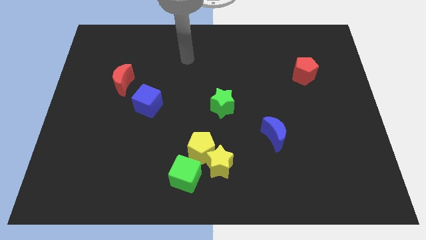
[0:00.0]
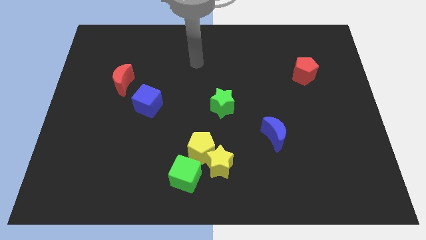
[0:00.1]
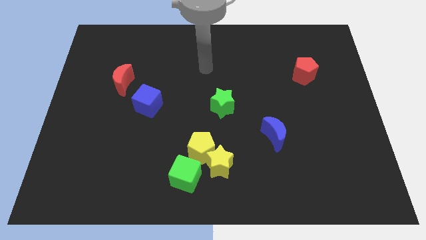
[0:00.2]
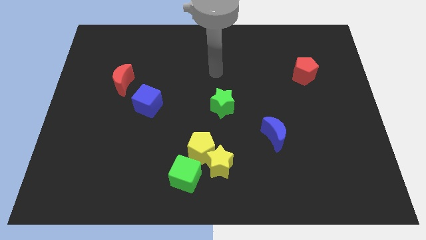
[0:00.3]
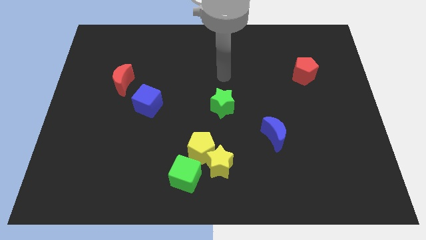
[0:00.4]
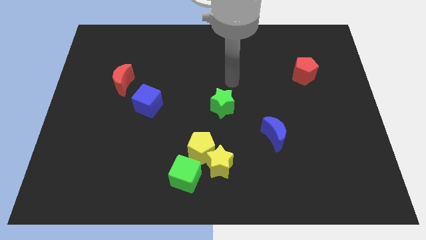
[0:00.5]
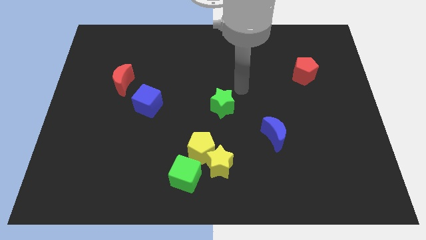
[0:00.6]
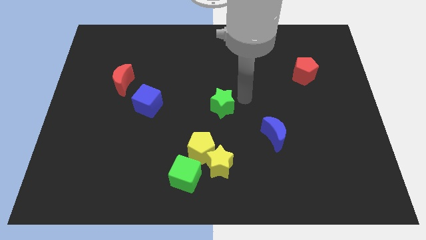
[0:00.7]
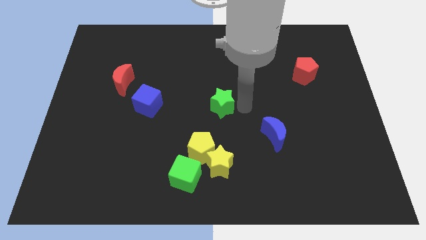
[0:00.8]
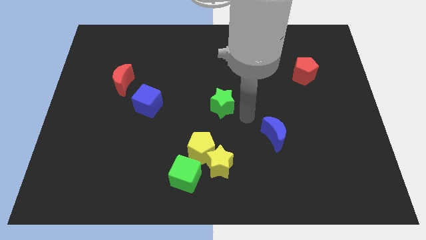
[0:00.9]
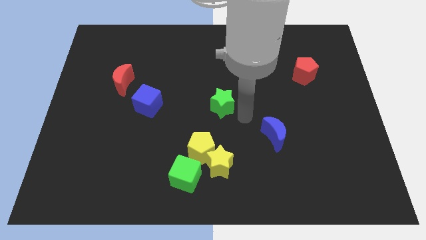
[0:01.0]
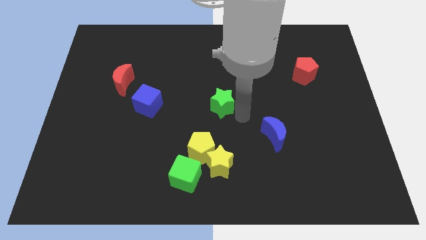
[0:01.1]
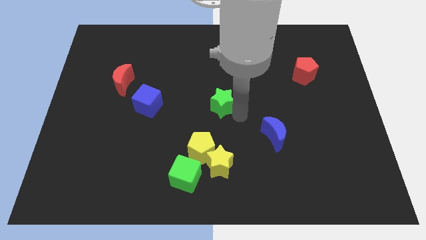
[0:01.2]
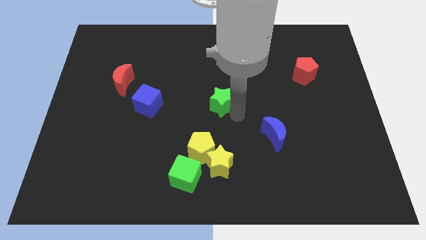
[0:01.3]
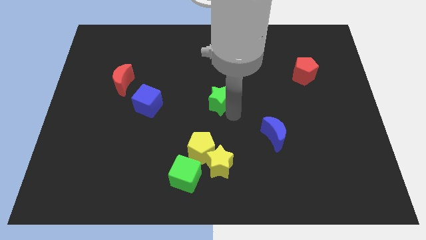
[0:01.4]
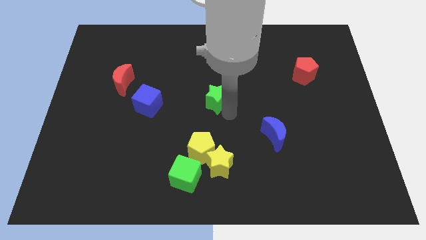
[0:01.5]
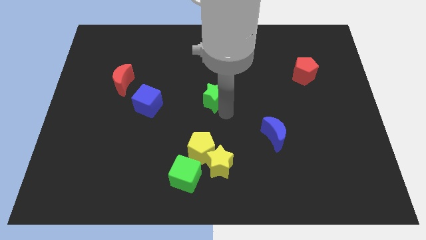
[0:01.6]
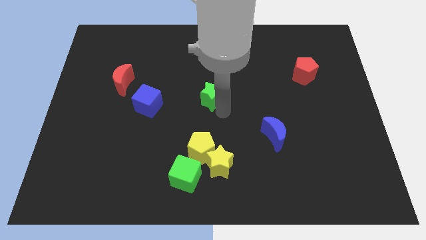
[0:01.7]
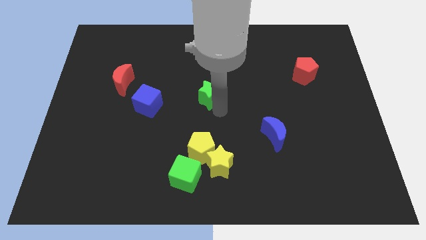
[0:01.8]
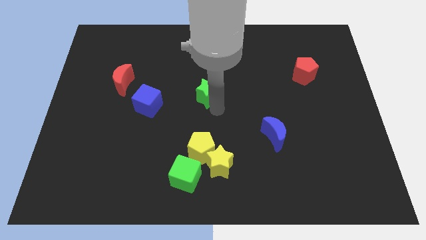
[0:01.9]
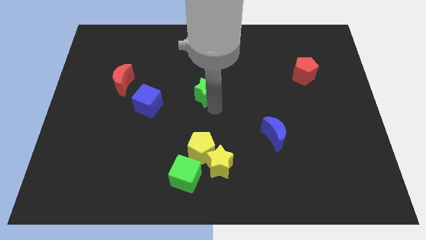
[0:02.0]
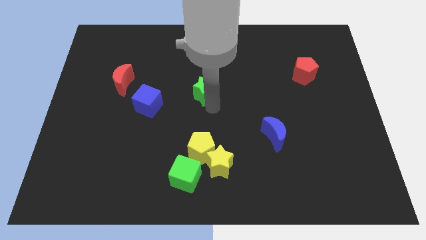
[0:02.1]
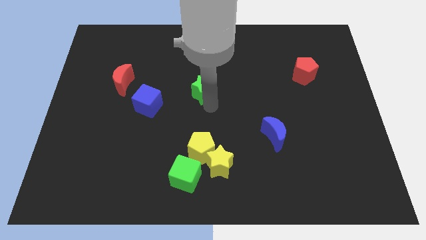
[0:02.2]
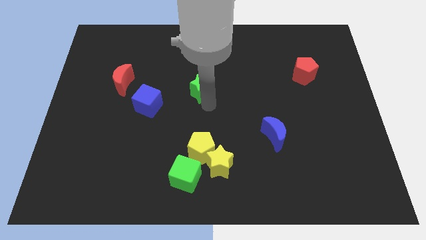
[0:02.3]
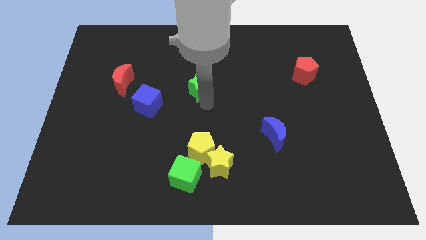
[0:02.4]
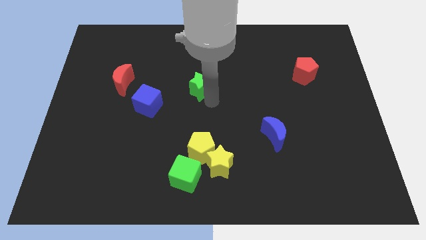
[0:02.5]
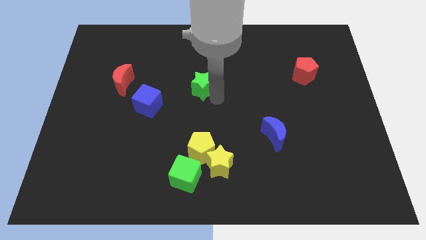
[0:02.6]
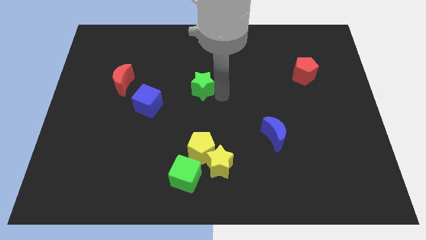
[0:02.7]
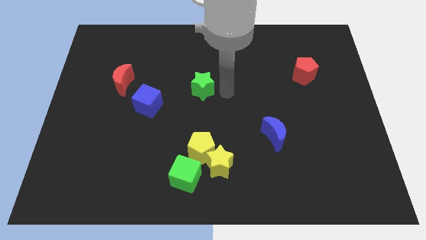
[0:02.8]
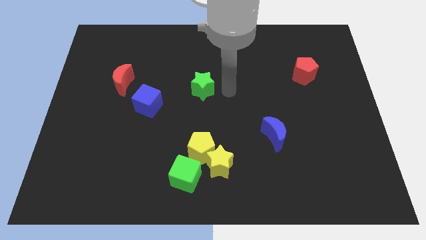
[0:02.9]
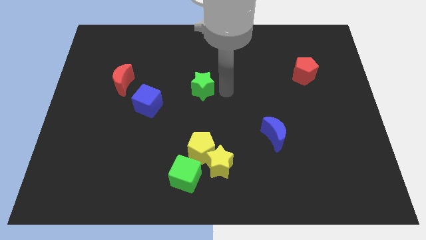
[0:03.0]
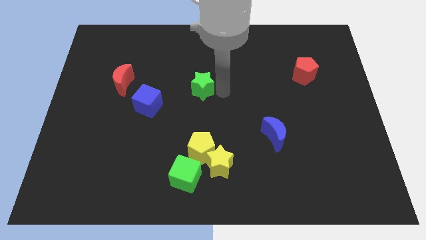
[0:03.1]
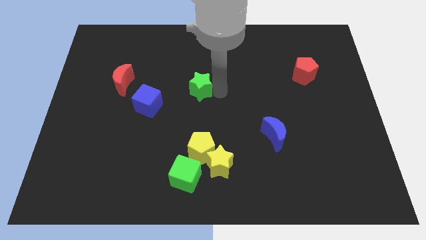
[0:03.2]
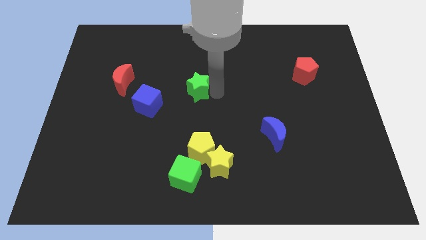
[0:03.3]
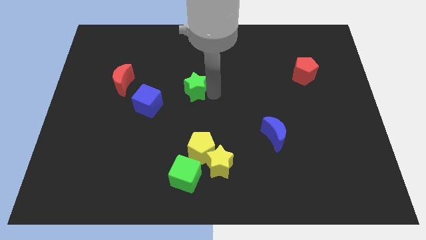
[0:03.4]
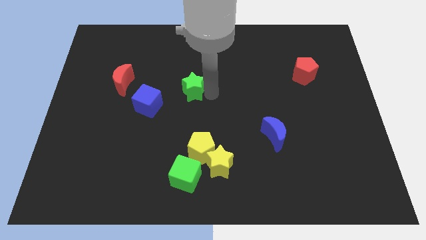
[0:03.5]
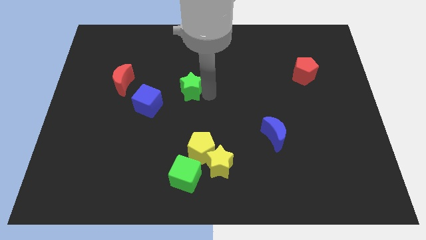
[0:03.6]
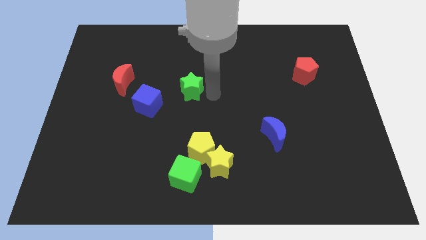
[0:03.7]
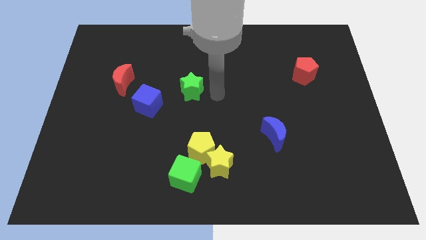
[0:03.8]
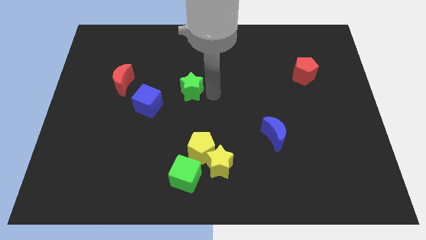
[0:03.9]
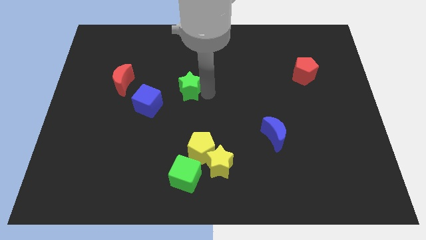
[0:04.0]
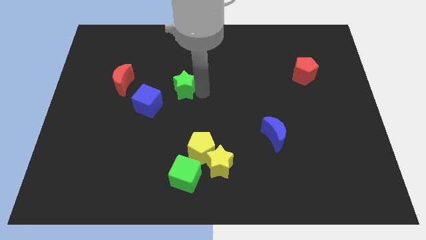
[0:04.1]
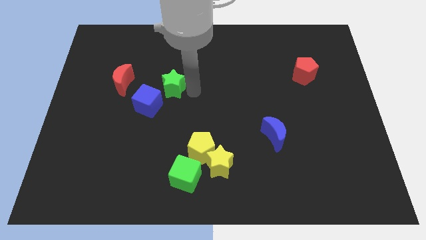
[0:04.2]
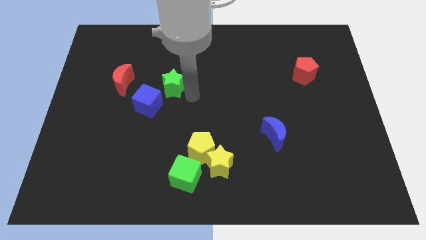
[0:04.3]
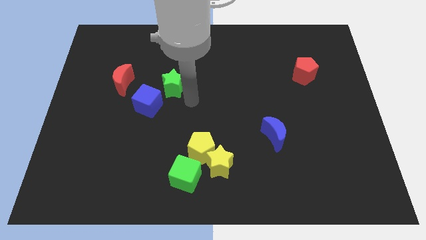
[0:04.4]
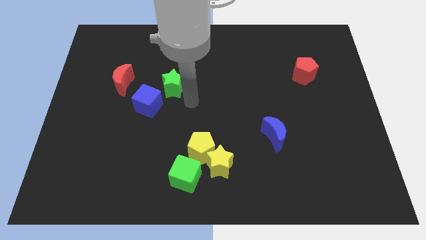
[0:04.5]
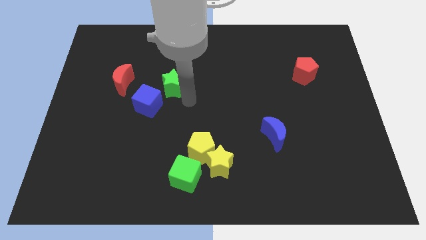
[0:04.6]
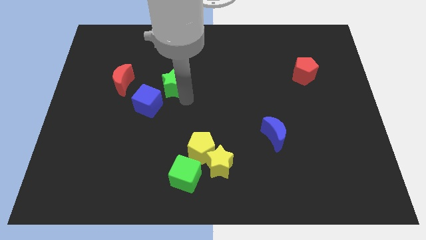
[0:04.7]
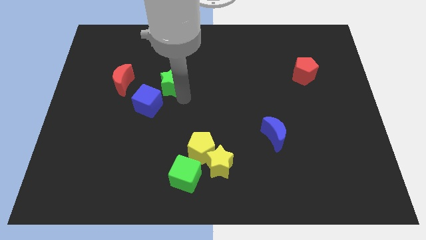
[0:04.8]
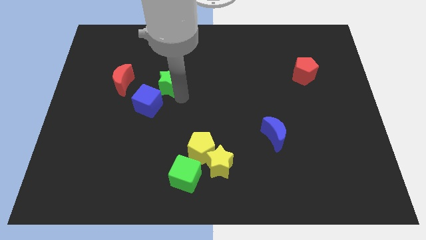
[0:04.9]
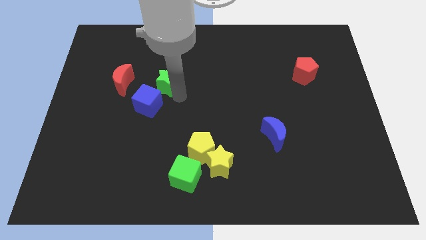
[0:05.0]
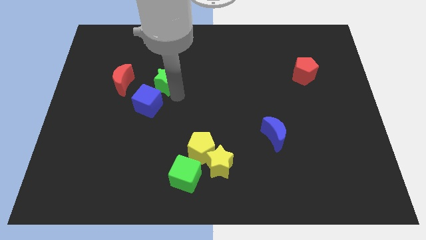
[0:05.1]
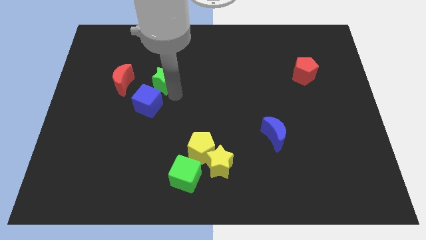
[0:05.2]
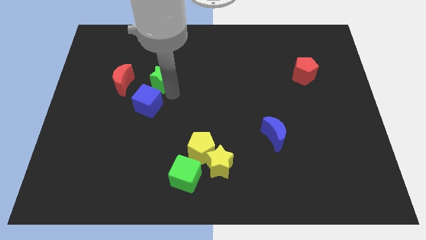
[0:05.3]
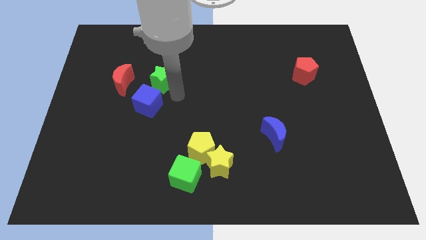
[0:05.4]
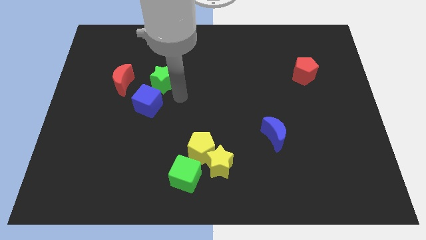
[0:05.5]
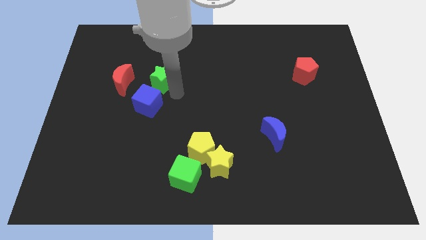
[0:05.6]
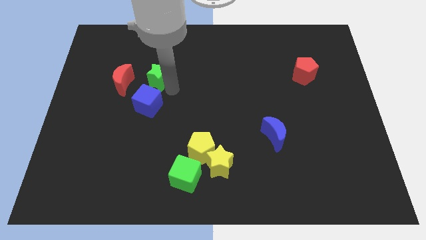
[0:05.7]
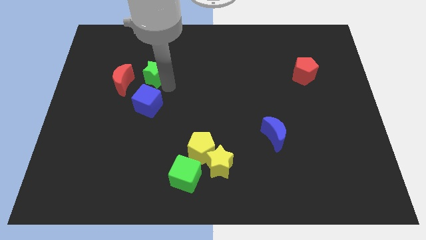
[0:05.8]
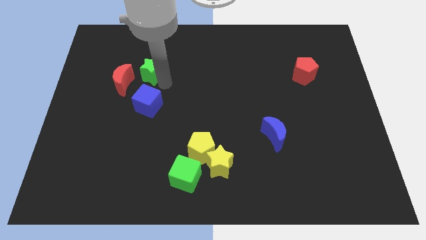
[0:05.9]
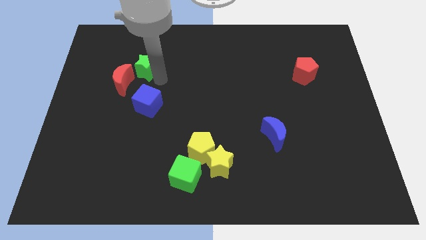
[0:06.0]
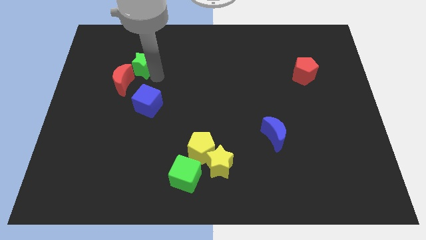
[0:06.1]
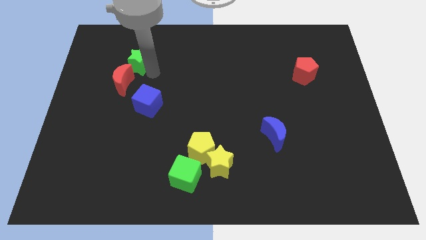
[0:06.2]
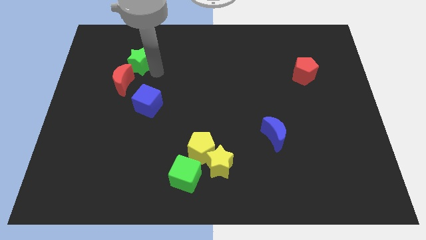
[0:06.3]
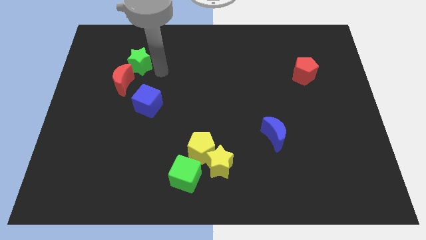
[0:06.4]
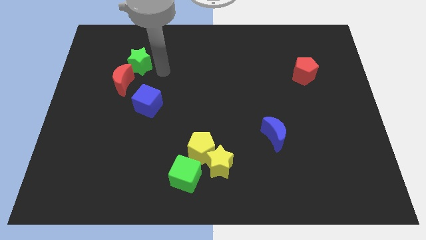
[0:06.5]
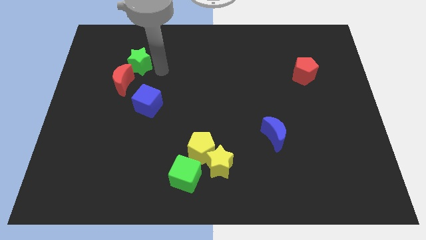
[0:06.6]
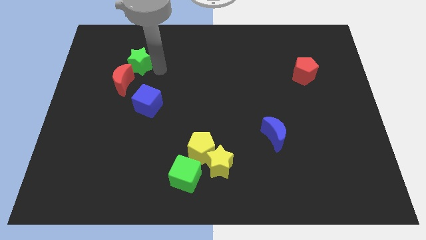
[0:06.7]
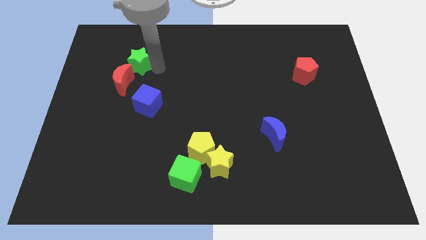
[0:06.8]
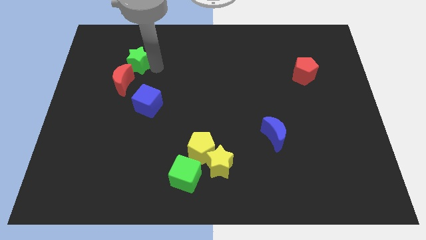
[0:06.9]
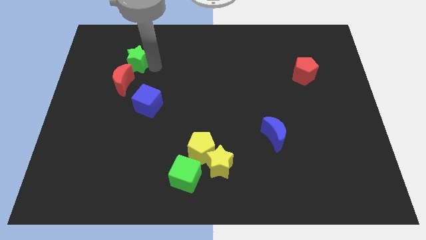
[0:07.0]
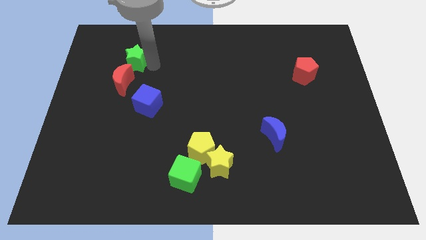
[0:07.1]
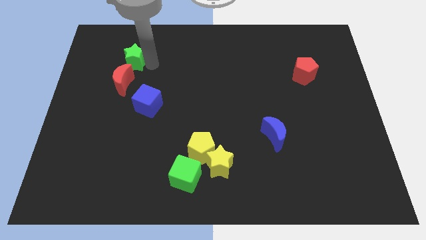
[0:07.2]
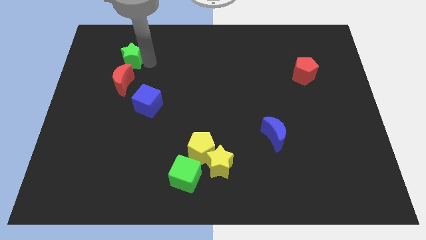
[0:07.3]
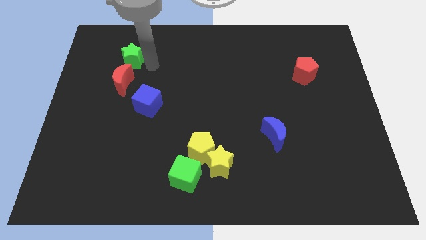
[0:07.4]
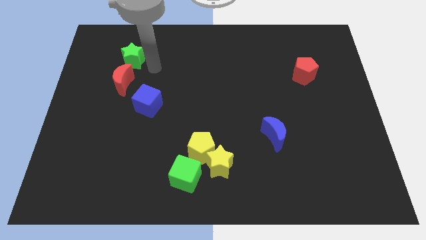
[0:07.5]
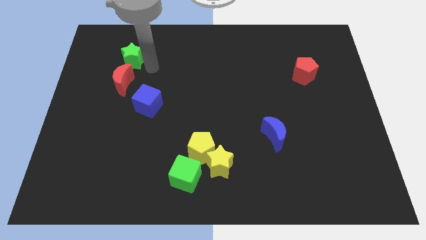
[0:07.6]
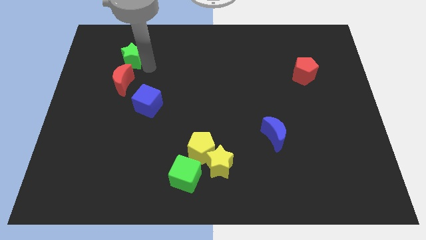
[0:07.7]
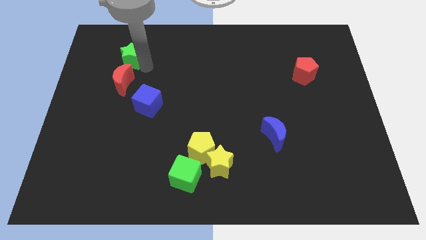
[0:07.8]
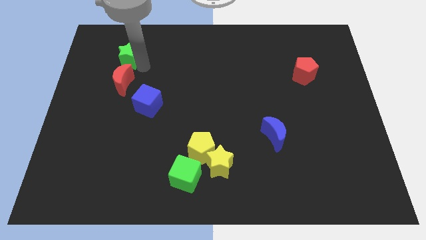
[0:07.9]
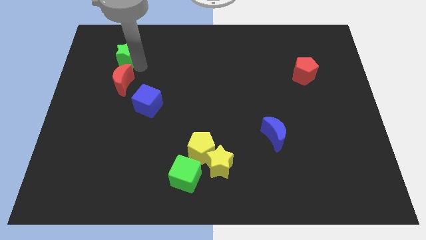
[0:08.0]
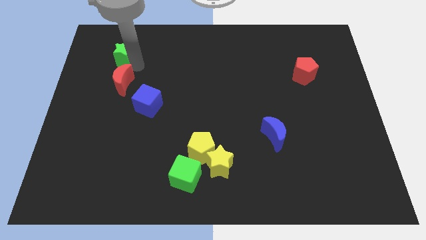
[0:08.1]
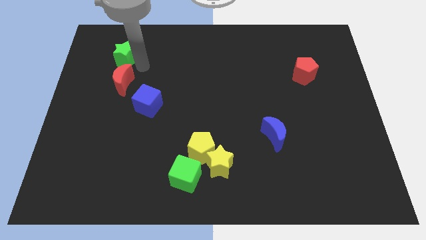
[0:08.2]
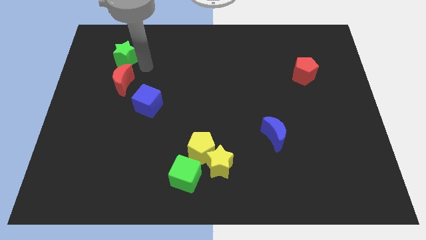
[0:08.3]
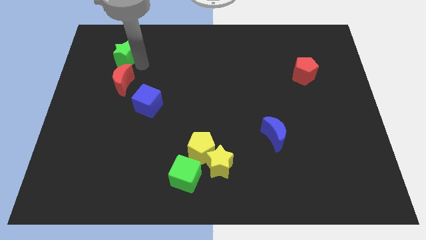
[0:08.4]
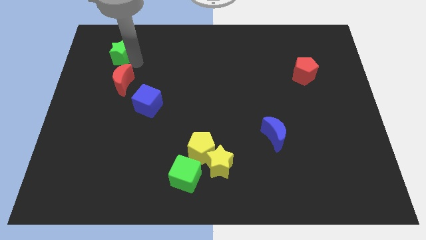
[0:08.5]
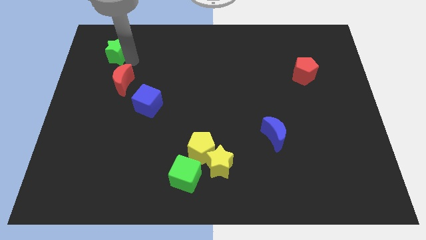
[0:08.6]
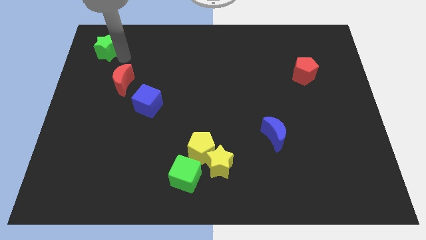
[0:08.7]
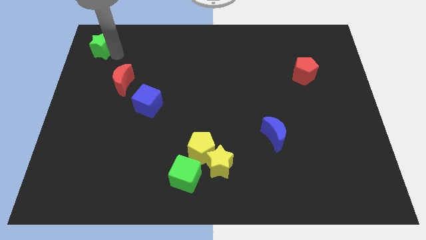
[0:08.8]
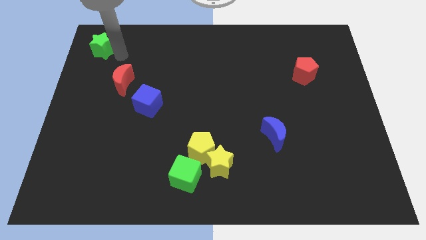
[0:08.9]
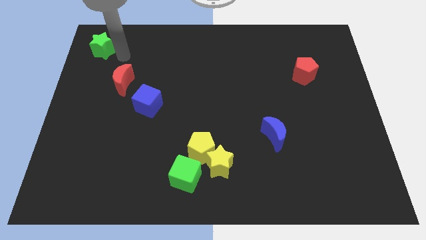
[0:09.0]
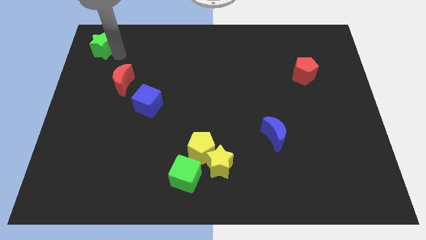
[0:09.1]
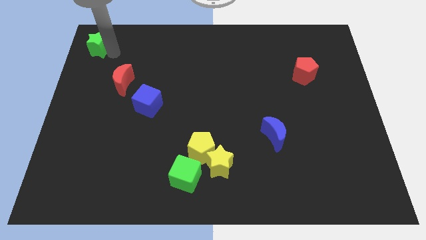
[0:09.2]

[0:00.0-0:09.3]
put the green star to the upper left corner
